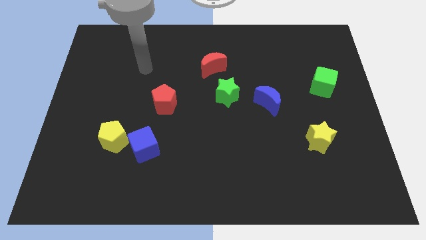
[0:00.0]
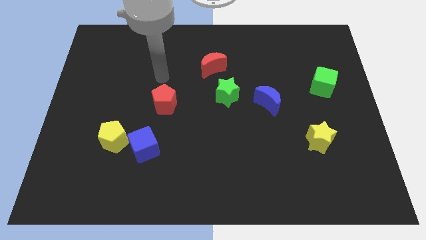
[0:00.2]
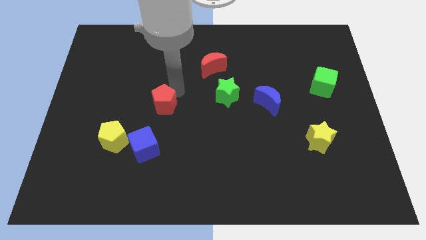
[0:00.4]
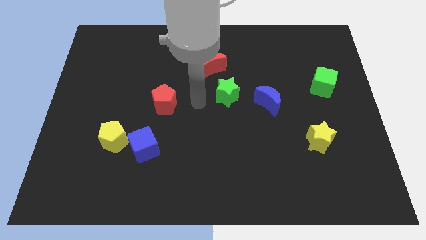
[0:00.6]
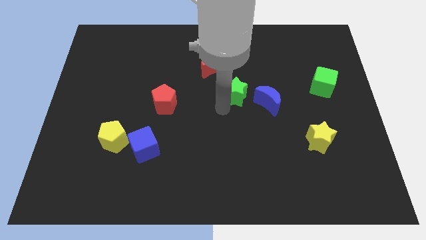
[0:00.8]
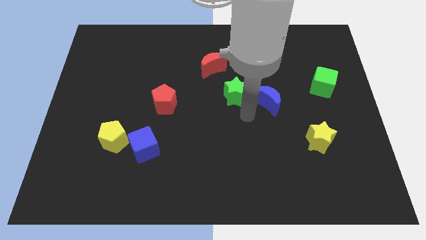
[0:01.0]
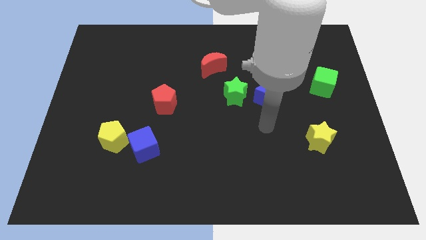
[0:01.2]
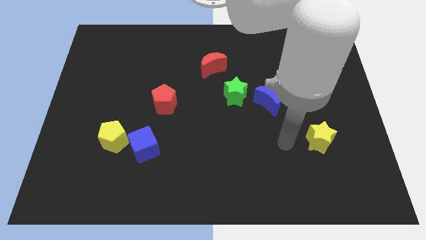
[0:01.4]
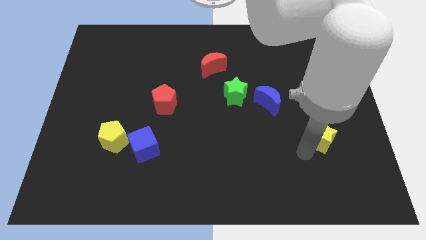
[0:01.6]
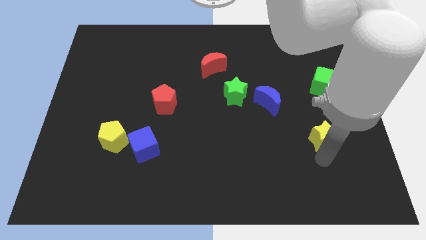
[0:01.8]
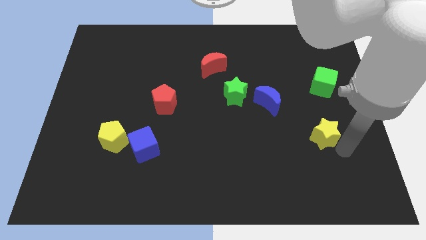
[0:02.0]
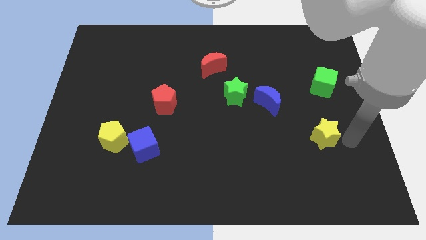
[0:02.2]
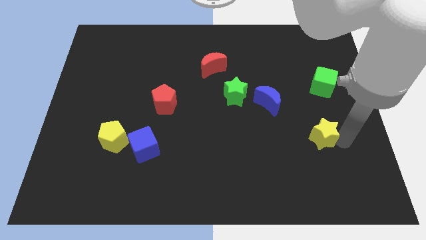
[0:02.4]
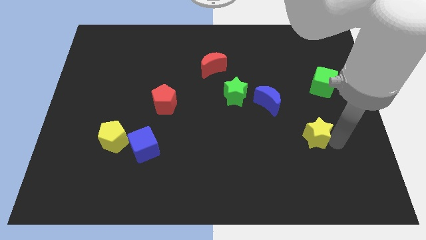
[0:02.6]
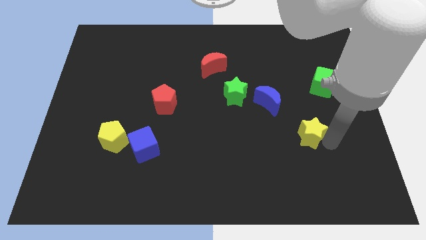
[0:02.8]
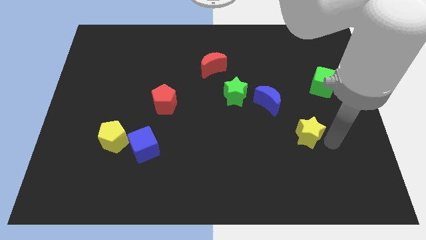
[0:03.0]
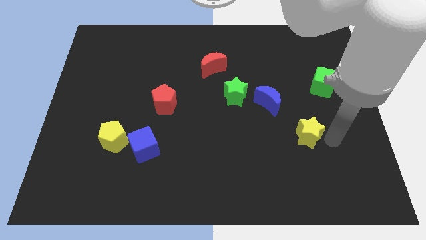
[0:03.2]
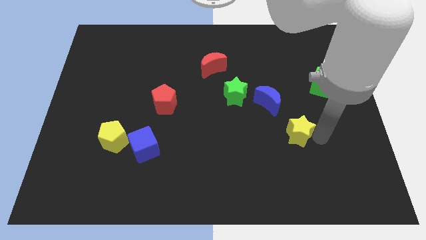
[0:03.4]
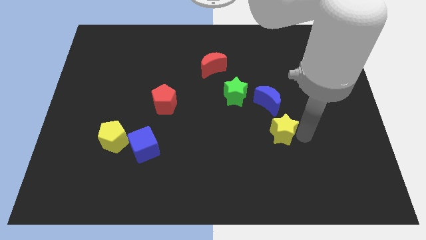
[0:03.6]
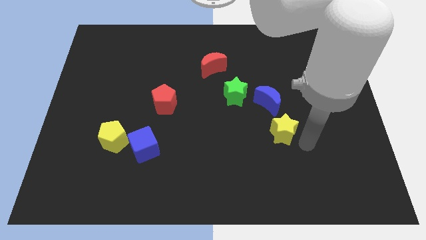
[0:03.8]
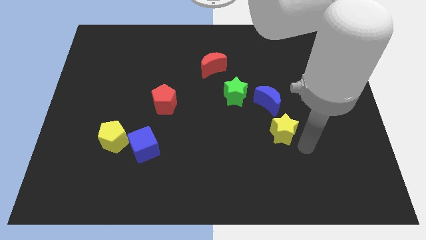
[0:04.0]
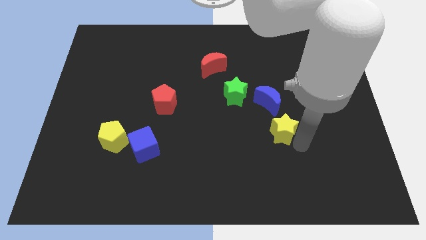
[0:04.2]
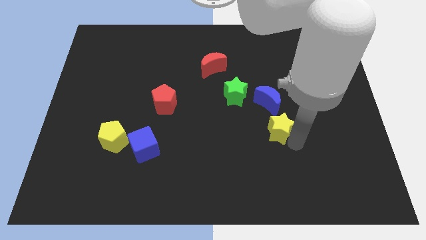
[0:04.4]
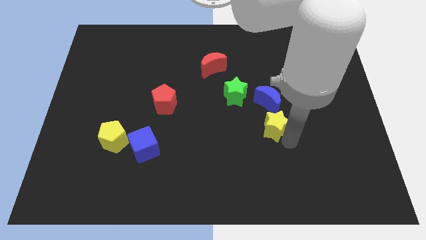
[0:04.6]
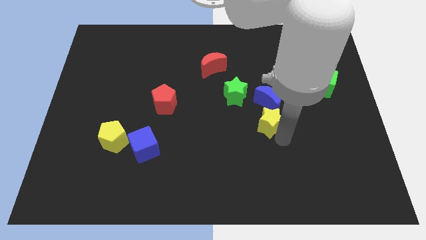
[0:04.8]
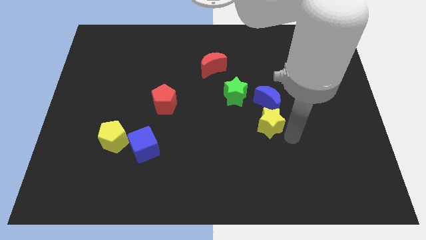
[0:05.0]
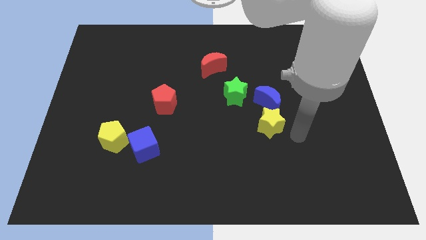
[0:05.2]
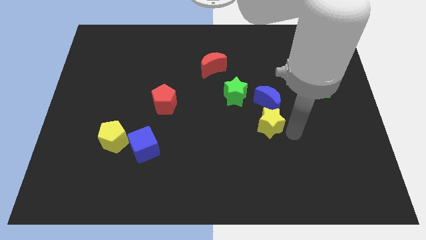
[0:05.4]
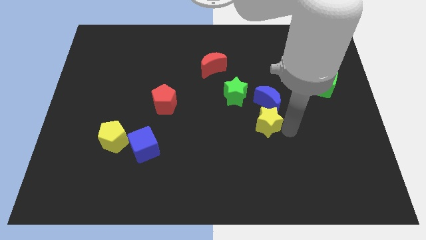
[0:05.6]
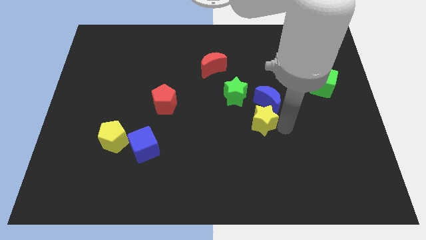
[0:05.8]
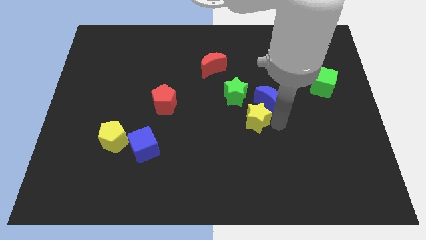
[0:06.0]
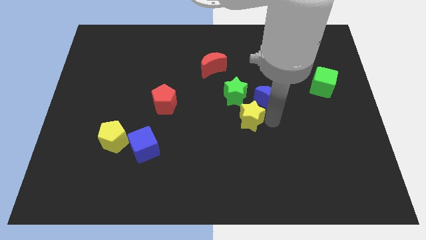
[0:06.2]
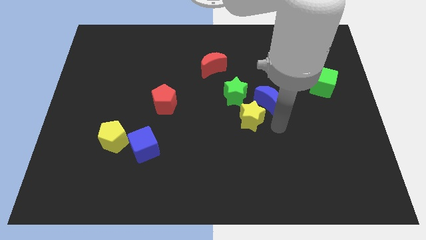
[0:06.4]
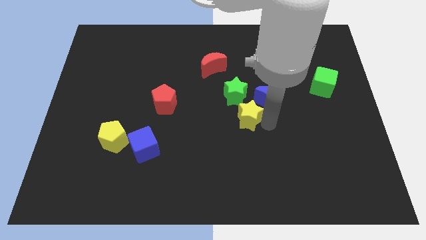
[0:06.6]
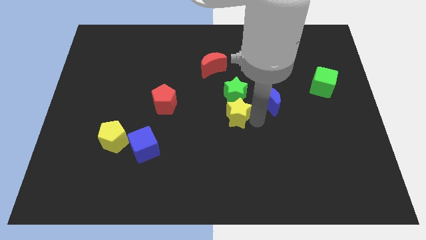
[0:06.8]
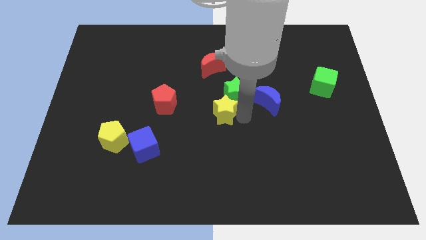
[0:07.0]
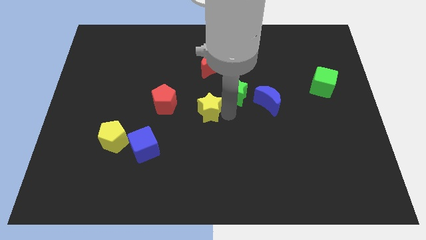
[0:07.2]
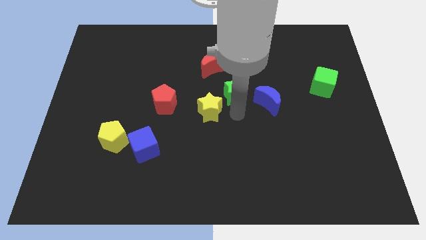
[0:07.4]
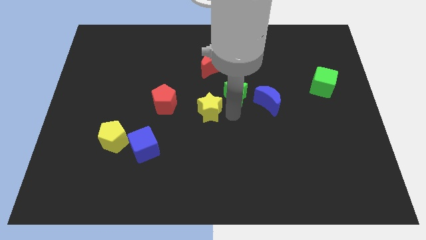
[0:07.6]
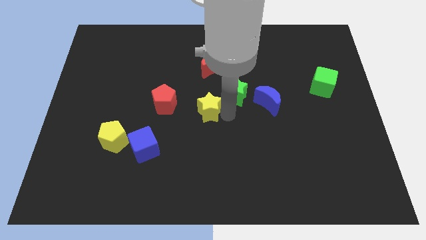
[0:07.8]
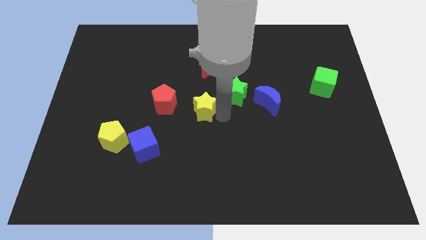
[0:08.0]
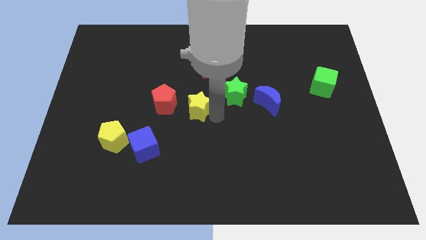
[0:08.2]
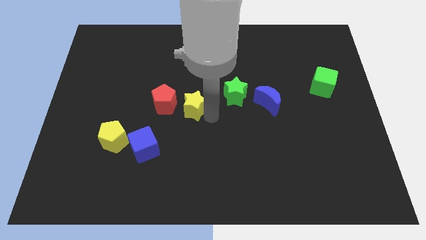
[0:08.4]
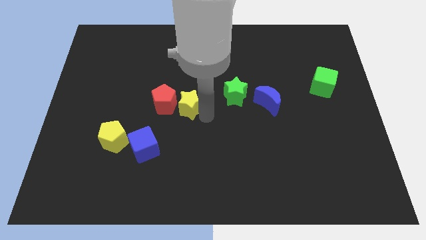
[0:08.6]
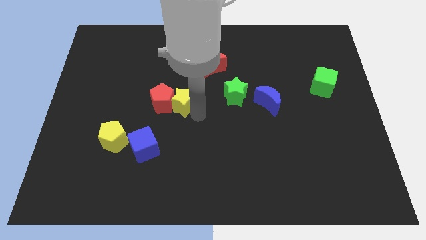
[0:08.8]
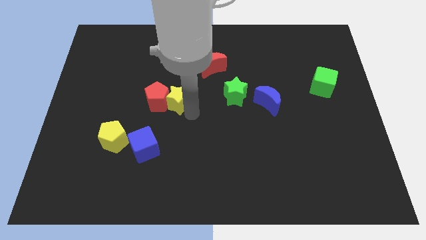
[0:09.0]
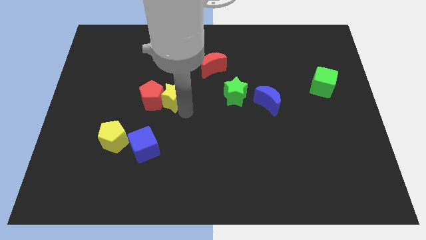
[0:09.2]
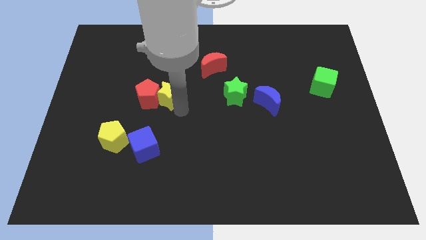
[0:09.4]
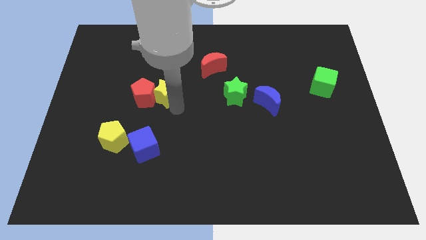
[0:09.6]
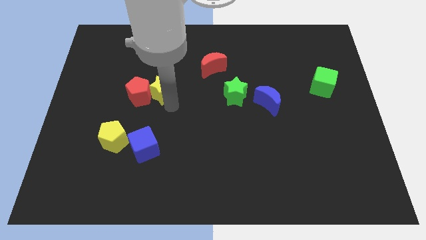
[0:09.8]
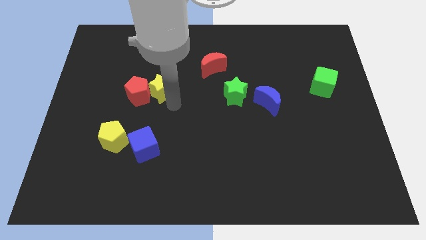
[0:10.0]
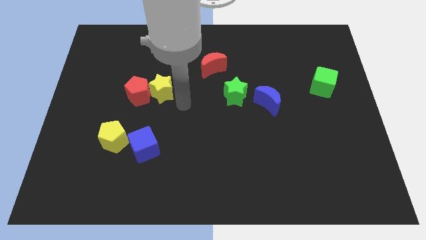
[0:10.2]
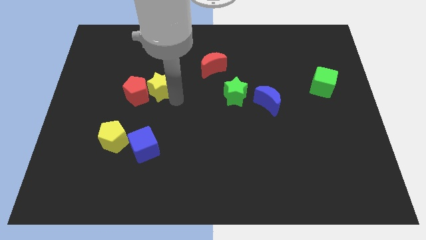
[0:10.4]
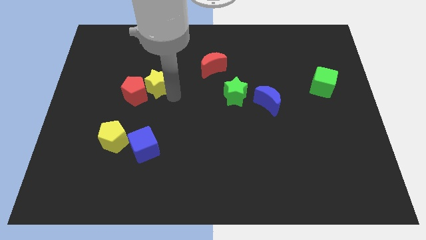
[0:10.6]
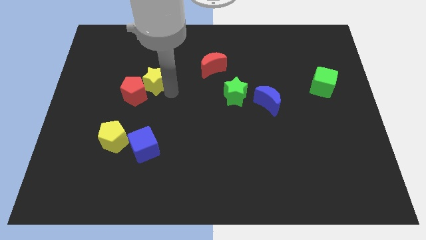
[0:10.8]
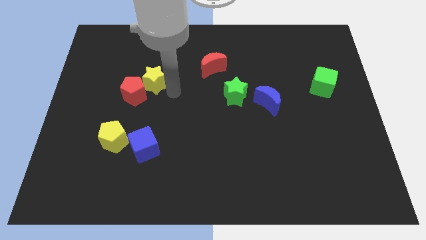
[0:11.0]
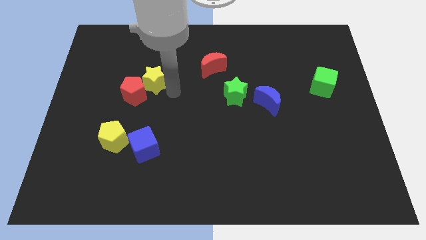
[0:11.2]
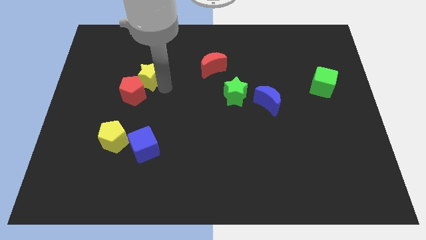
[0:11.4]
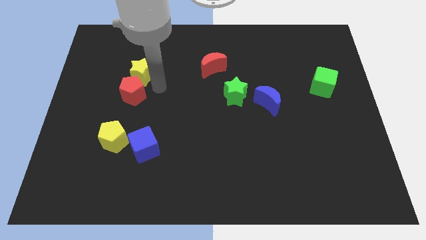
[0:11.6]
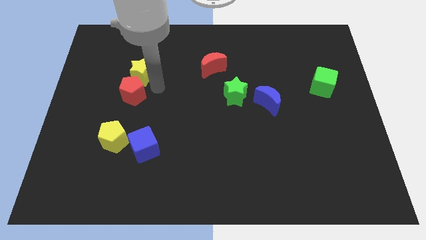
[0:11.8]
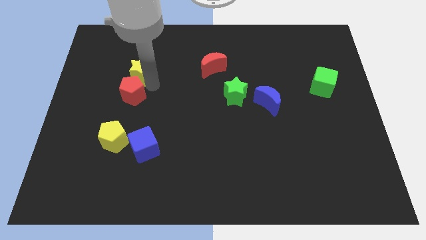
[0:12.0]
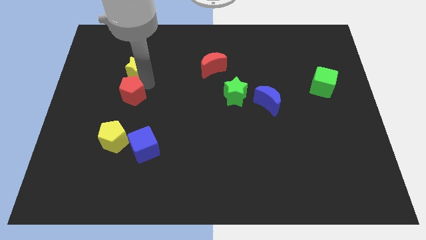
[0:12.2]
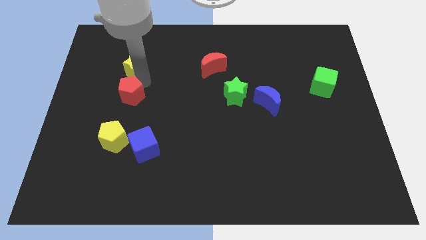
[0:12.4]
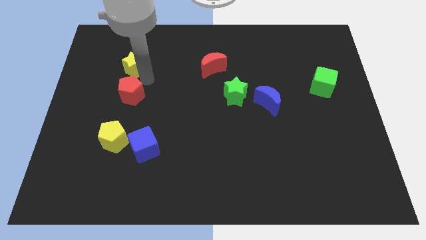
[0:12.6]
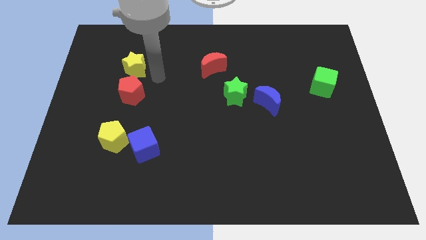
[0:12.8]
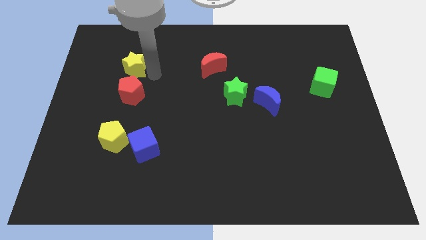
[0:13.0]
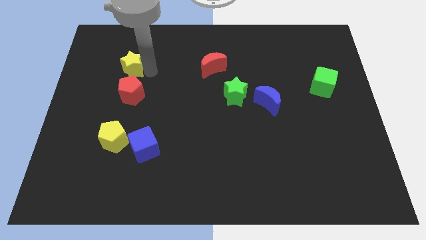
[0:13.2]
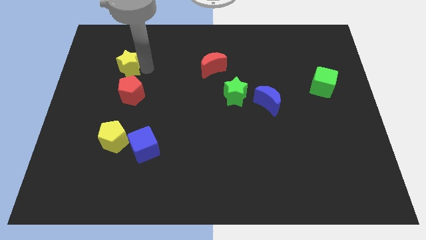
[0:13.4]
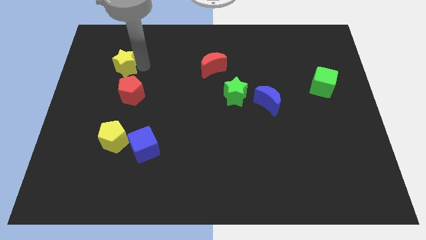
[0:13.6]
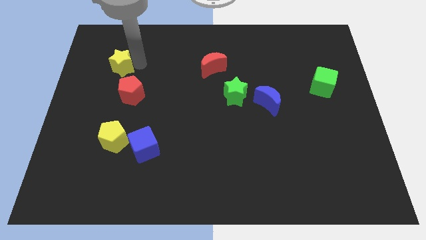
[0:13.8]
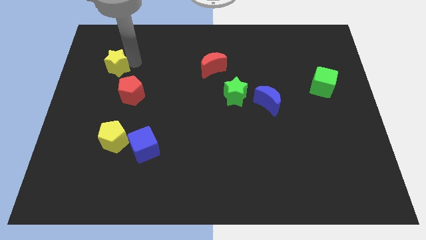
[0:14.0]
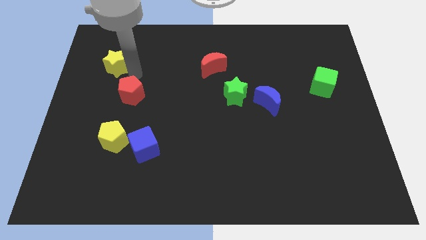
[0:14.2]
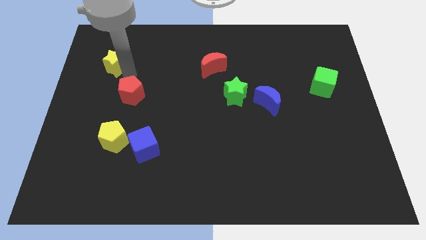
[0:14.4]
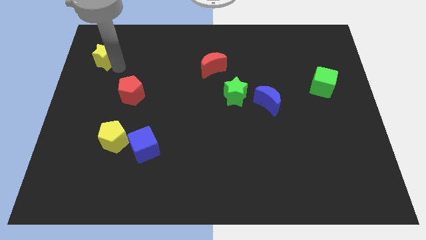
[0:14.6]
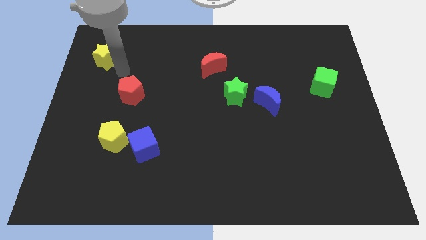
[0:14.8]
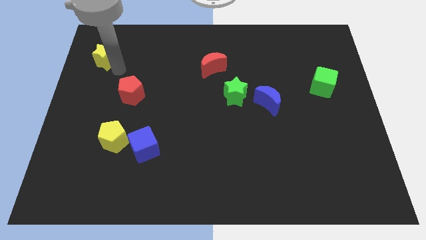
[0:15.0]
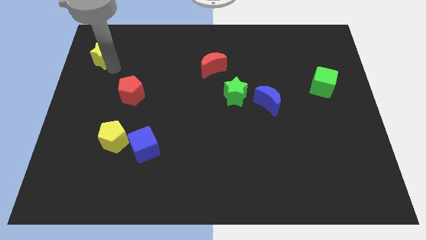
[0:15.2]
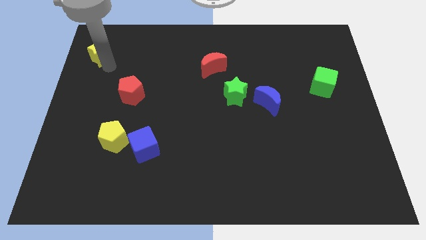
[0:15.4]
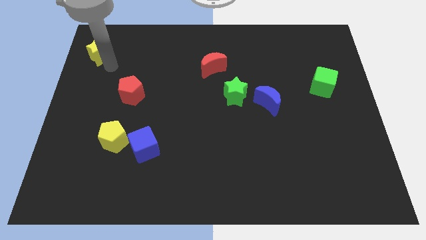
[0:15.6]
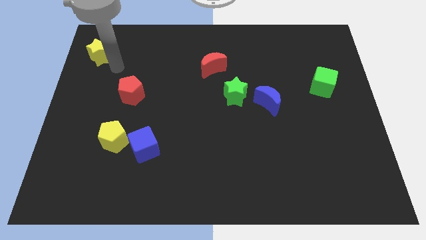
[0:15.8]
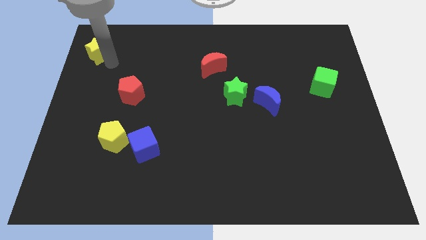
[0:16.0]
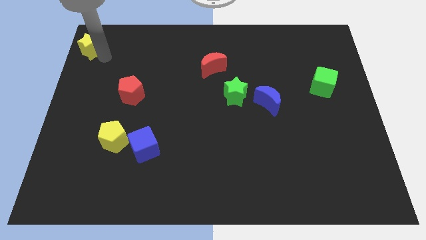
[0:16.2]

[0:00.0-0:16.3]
move the yellow star to the top left
